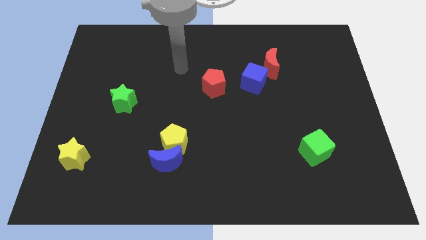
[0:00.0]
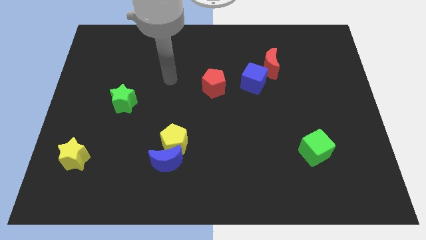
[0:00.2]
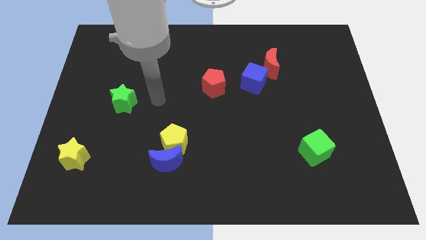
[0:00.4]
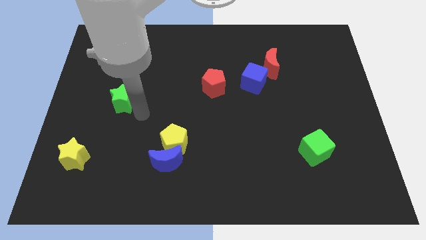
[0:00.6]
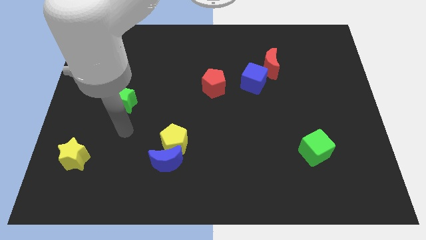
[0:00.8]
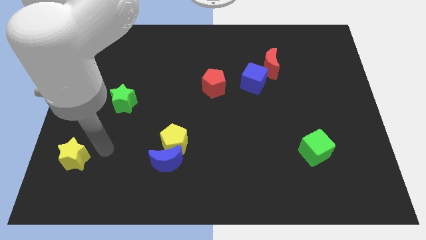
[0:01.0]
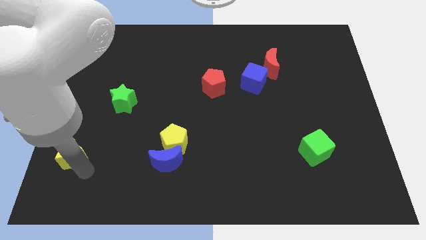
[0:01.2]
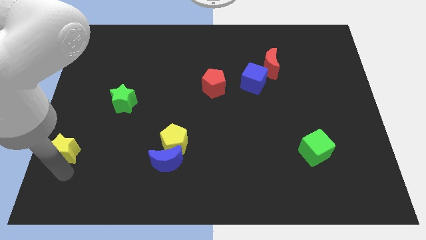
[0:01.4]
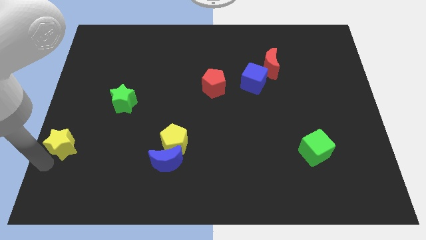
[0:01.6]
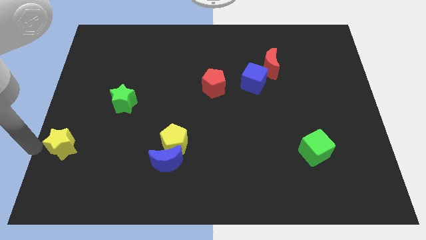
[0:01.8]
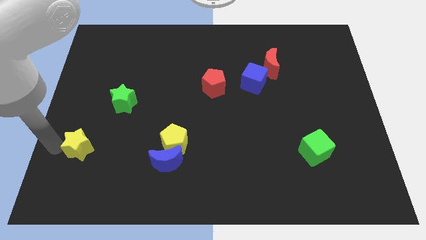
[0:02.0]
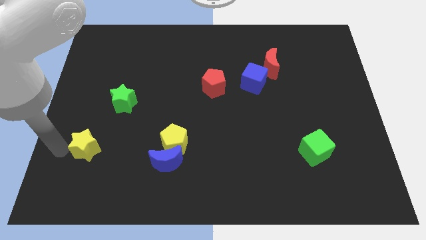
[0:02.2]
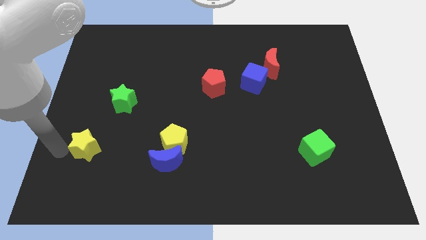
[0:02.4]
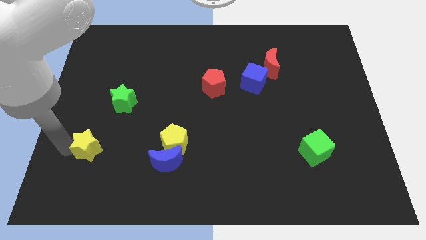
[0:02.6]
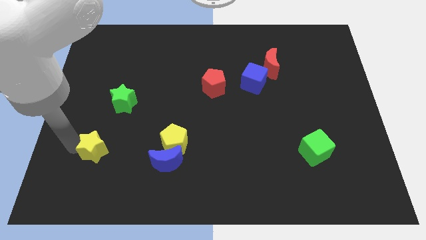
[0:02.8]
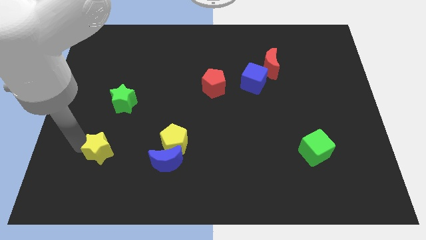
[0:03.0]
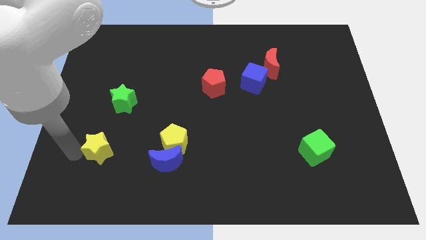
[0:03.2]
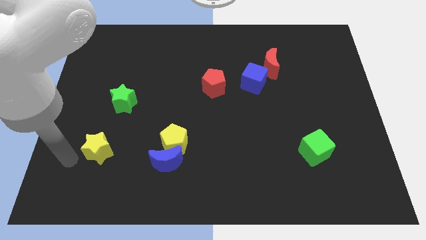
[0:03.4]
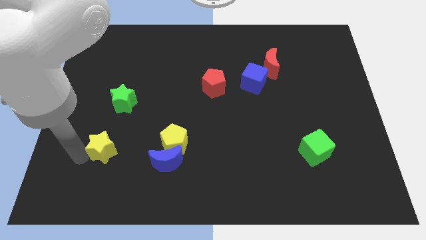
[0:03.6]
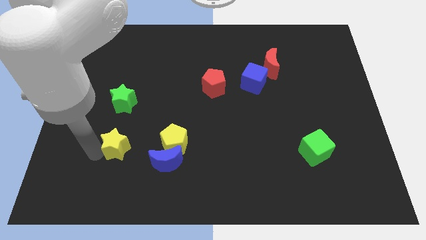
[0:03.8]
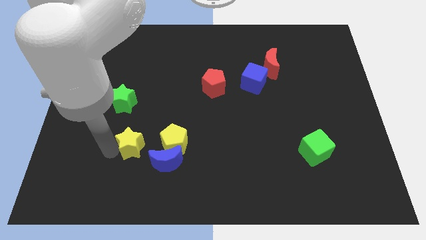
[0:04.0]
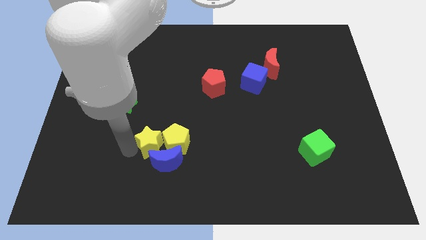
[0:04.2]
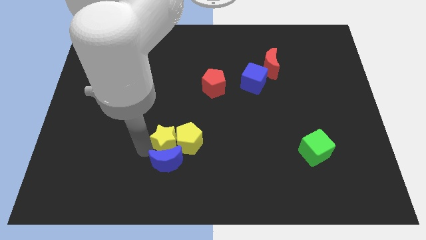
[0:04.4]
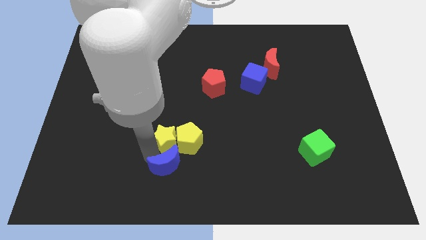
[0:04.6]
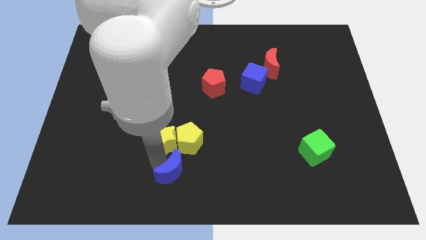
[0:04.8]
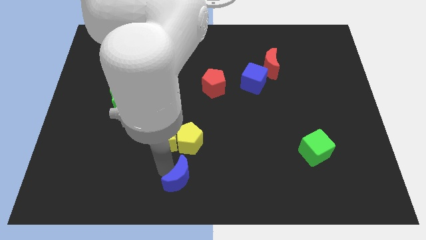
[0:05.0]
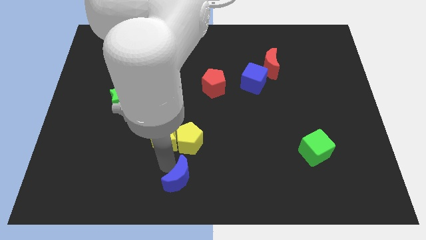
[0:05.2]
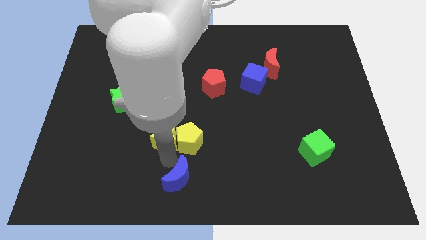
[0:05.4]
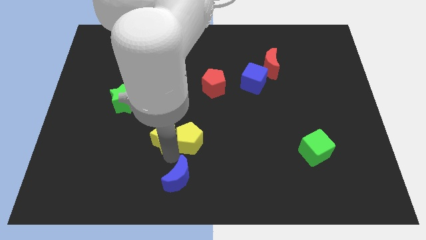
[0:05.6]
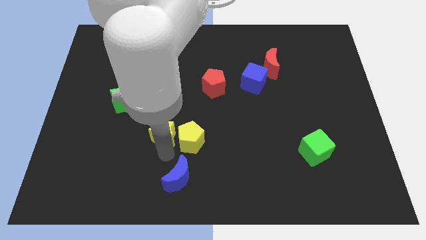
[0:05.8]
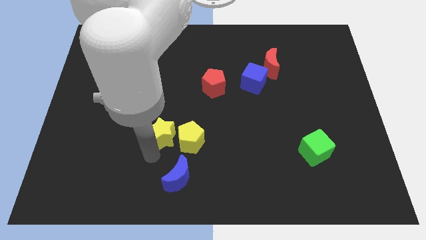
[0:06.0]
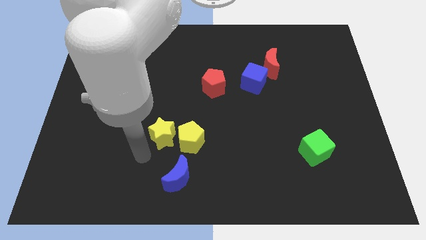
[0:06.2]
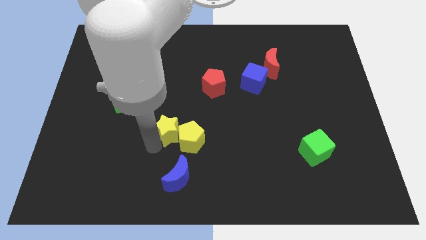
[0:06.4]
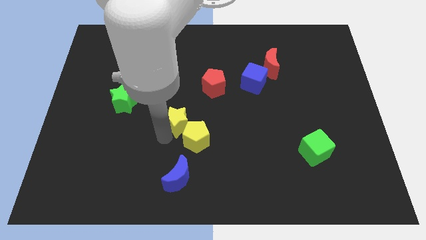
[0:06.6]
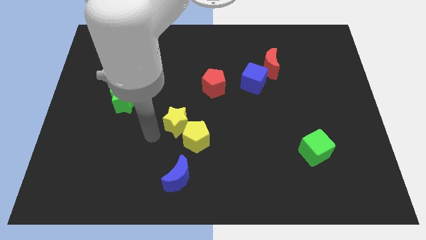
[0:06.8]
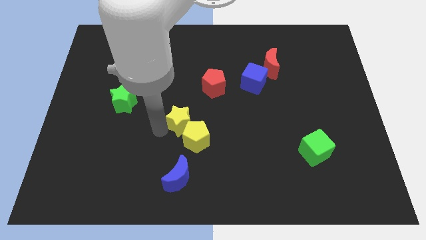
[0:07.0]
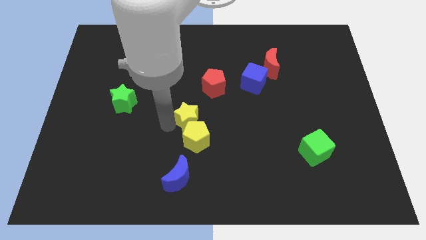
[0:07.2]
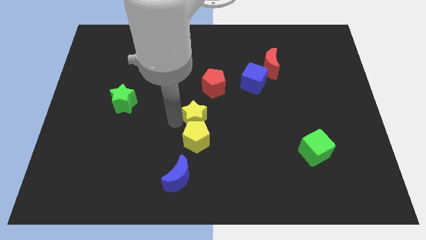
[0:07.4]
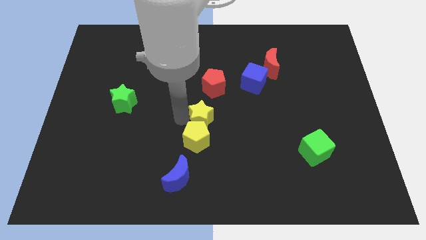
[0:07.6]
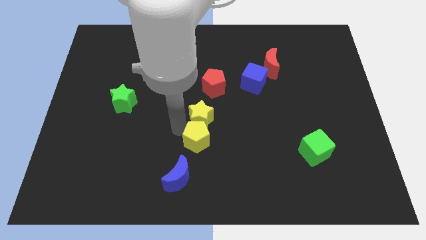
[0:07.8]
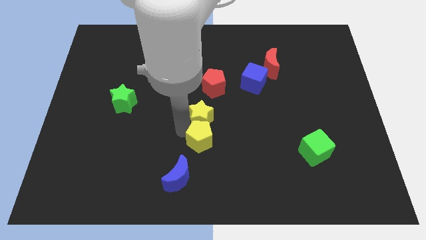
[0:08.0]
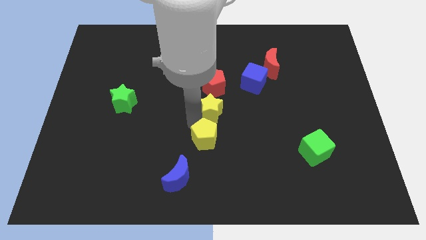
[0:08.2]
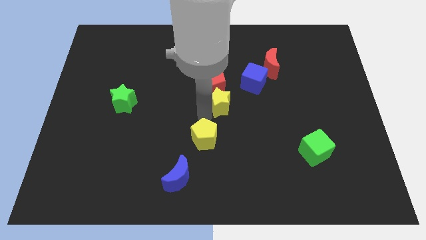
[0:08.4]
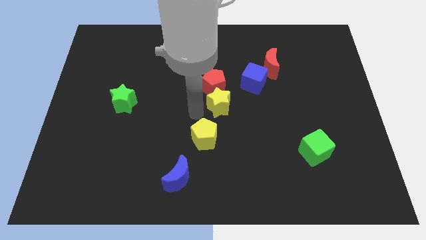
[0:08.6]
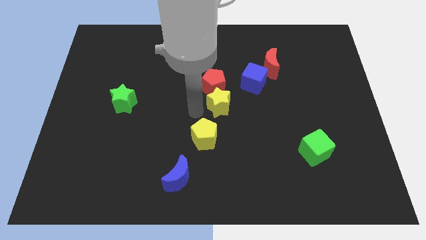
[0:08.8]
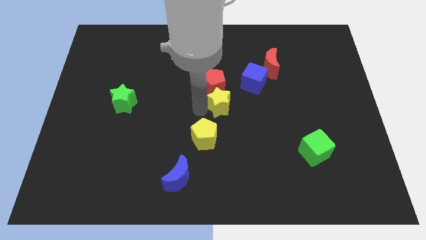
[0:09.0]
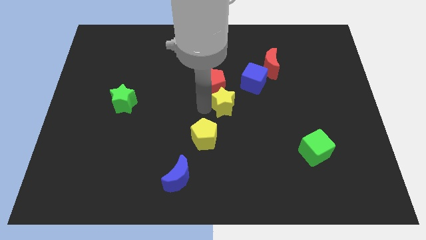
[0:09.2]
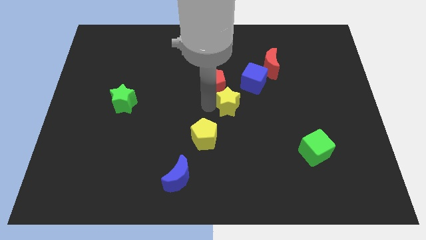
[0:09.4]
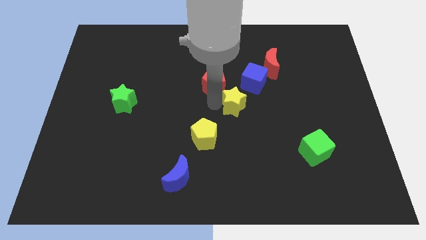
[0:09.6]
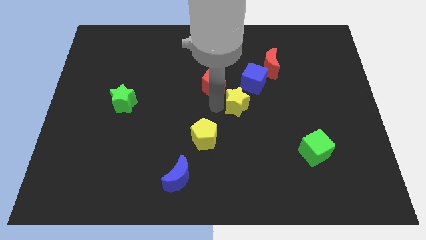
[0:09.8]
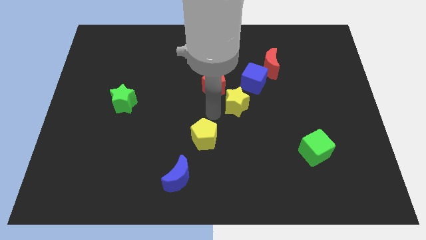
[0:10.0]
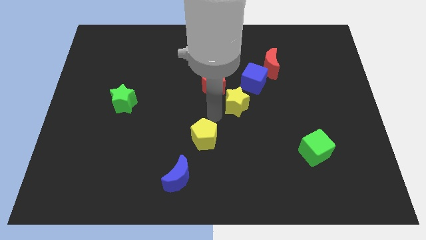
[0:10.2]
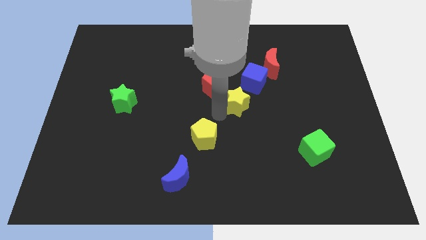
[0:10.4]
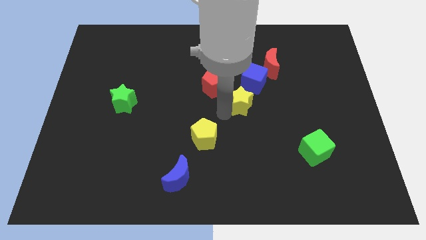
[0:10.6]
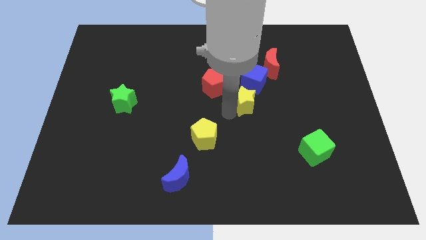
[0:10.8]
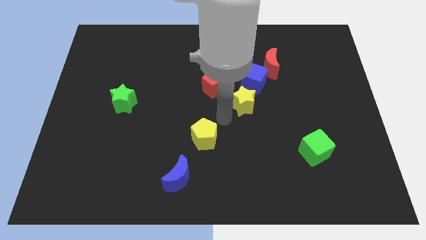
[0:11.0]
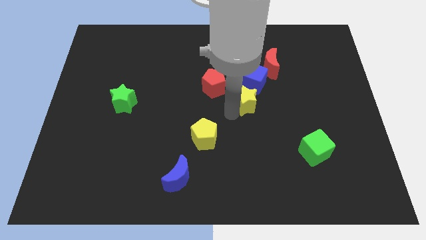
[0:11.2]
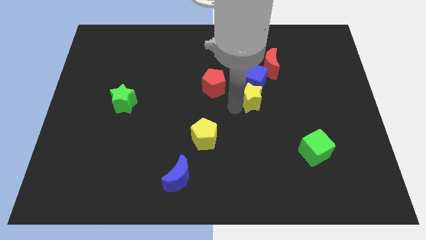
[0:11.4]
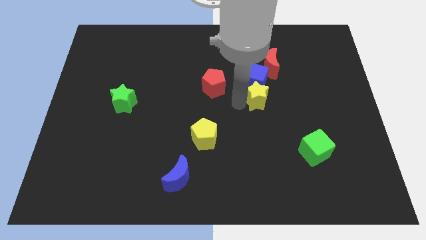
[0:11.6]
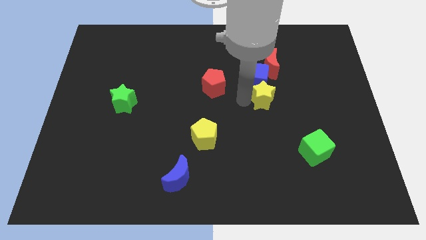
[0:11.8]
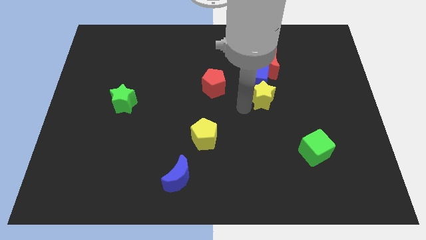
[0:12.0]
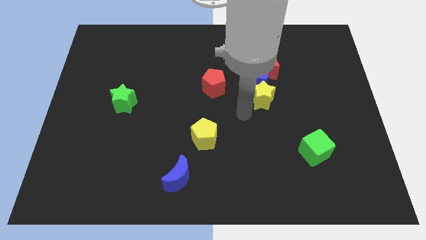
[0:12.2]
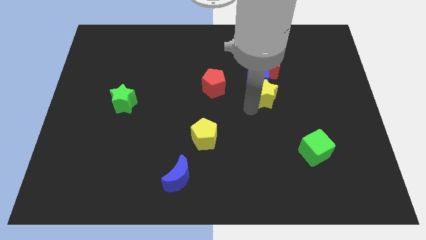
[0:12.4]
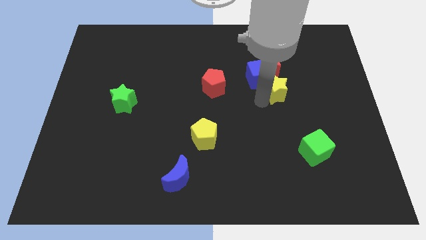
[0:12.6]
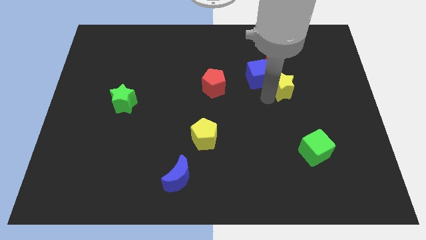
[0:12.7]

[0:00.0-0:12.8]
push the yellow star to the bottom right side of the red moon

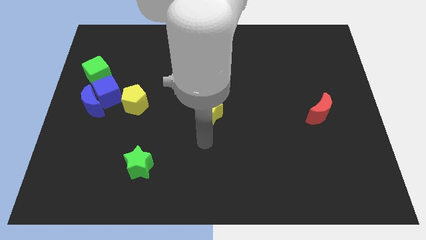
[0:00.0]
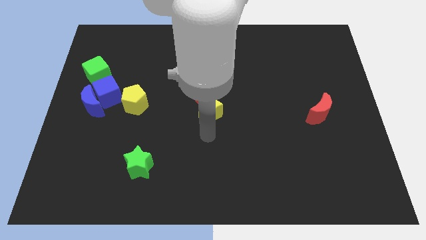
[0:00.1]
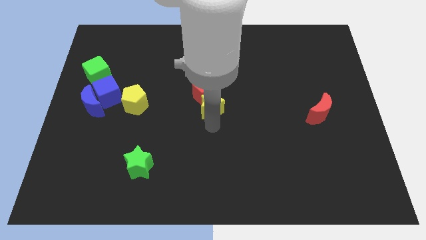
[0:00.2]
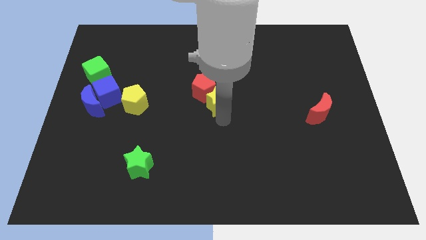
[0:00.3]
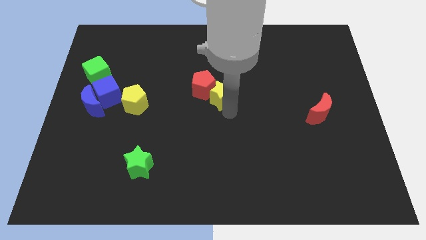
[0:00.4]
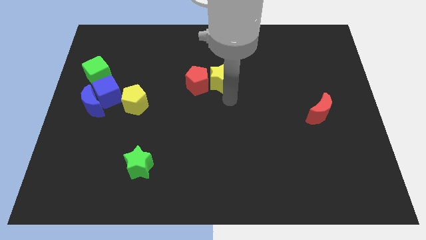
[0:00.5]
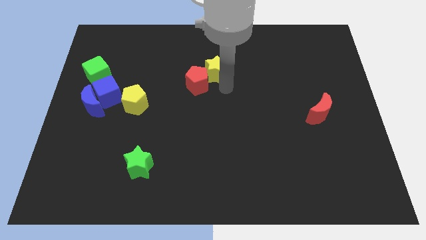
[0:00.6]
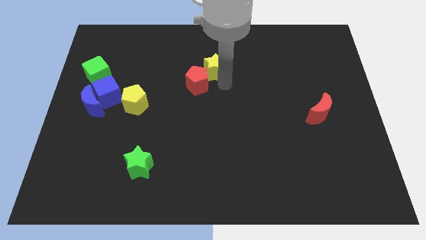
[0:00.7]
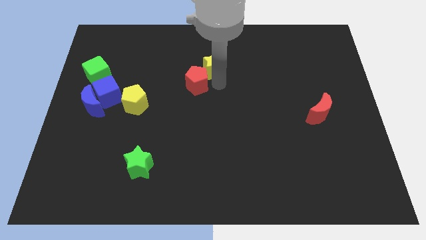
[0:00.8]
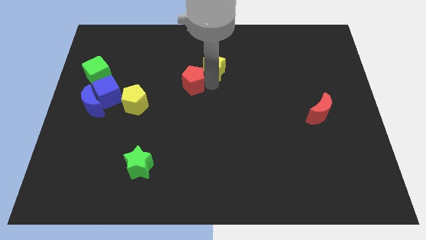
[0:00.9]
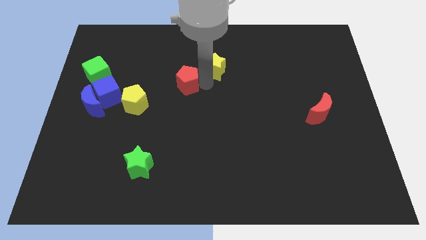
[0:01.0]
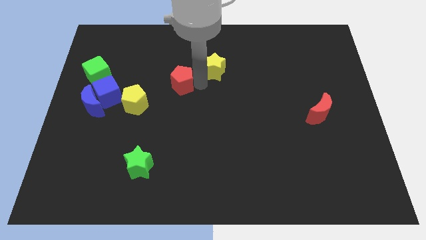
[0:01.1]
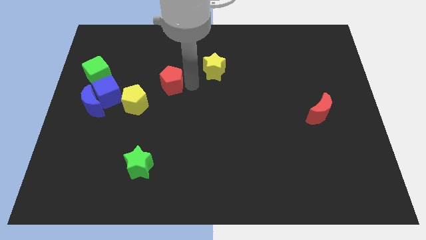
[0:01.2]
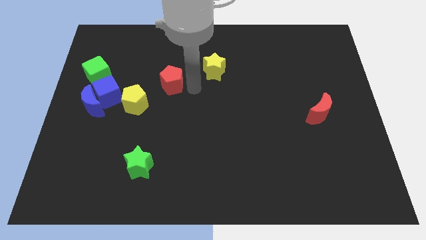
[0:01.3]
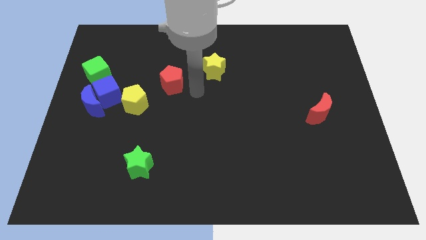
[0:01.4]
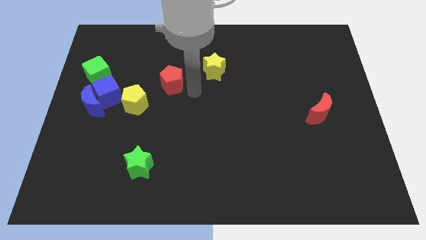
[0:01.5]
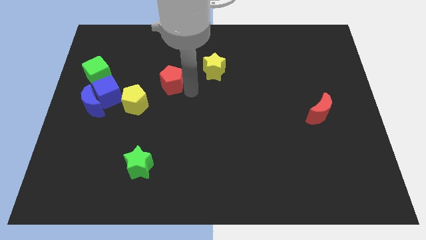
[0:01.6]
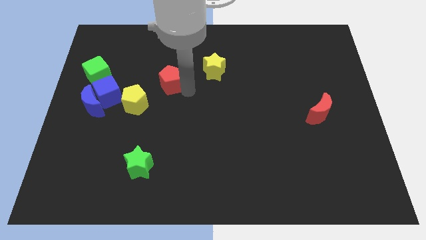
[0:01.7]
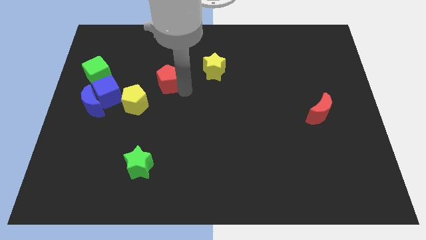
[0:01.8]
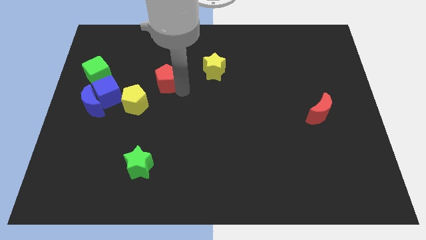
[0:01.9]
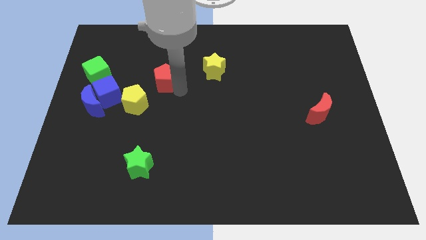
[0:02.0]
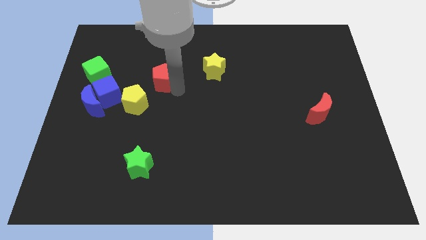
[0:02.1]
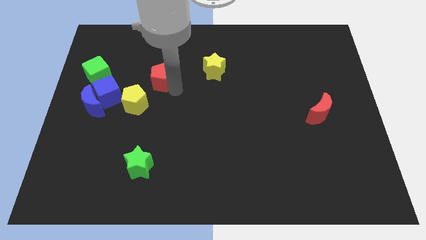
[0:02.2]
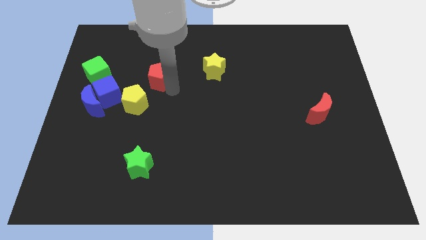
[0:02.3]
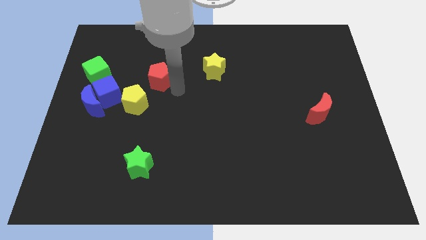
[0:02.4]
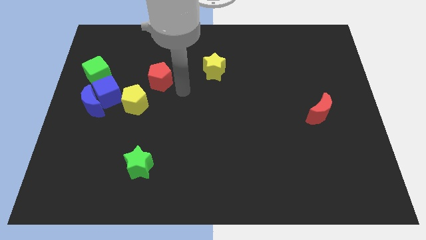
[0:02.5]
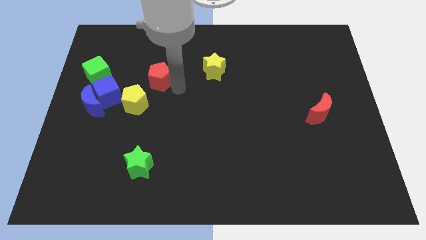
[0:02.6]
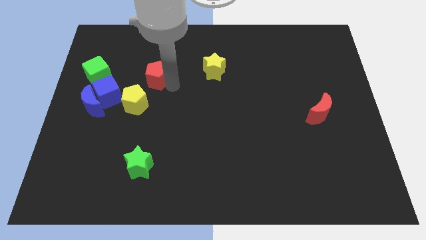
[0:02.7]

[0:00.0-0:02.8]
push the red pentagon to the top side of the yellow pentagon
